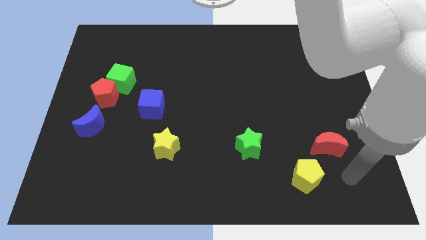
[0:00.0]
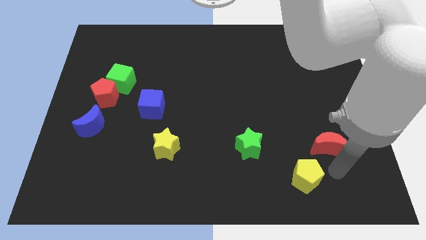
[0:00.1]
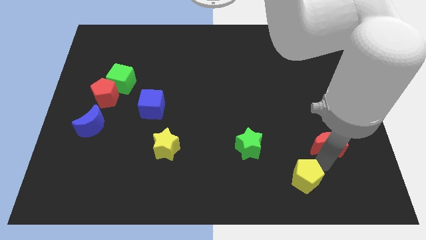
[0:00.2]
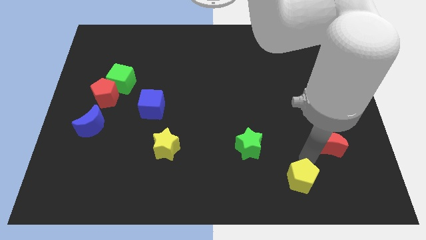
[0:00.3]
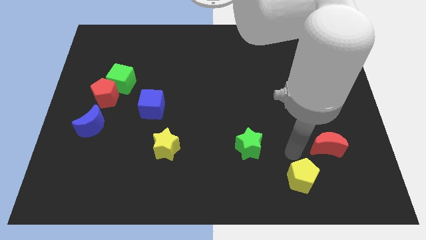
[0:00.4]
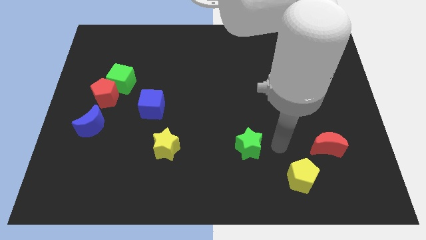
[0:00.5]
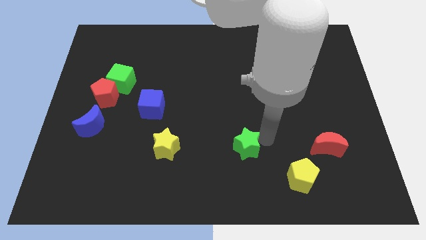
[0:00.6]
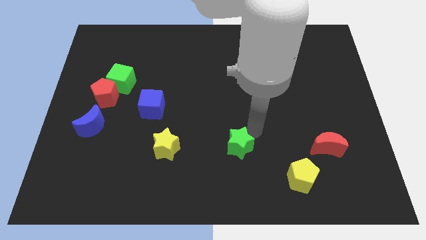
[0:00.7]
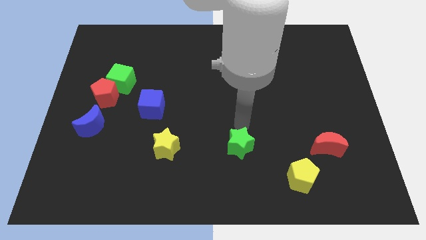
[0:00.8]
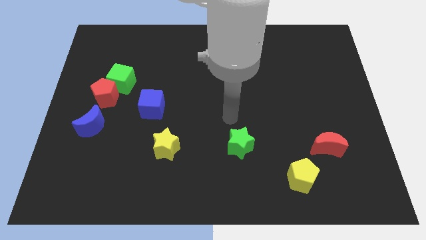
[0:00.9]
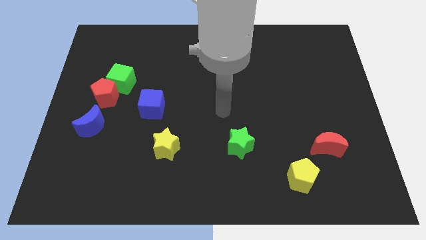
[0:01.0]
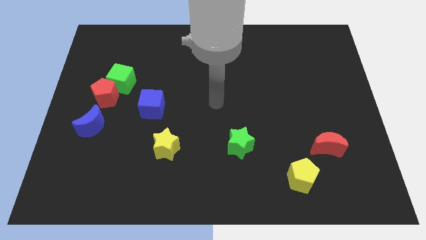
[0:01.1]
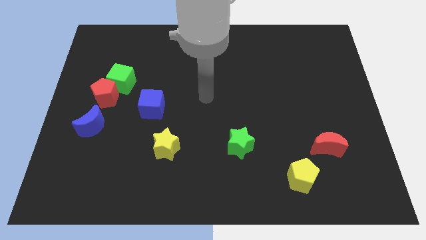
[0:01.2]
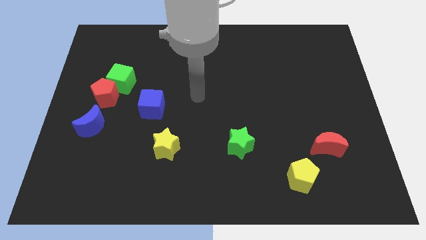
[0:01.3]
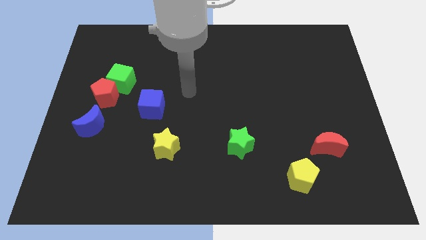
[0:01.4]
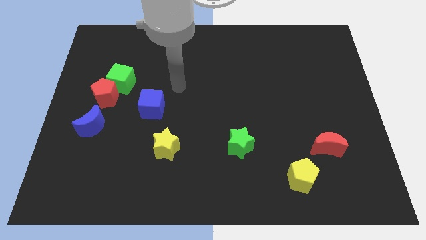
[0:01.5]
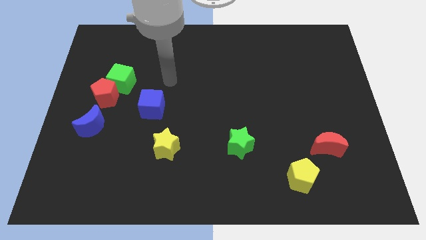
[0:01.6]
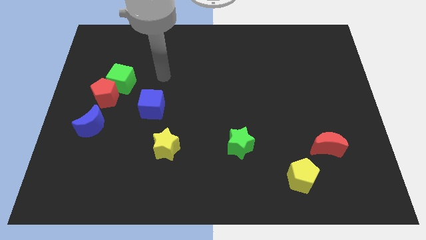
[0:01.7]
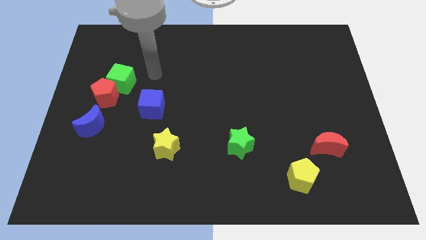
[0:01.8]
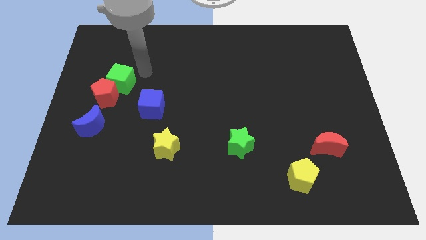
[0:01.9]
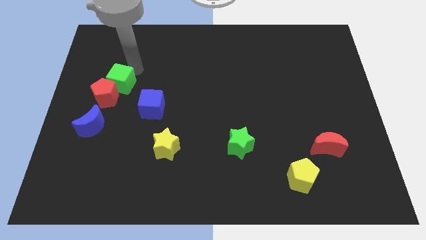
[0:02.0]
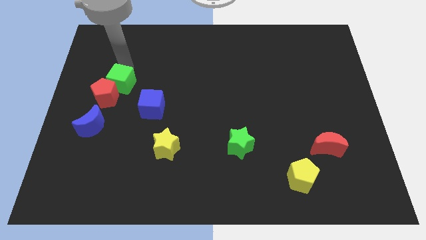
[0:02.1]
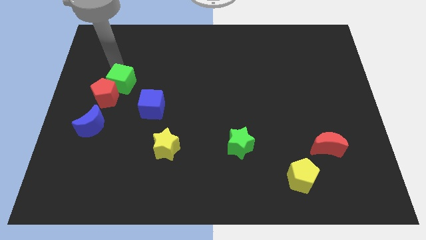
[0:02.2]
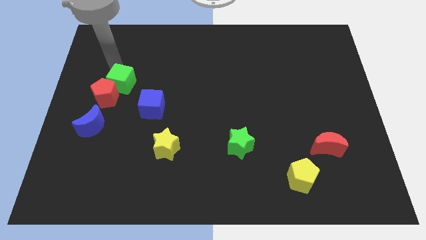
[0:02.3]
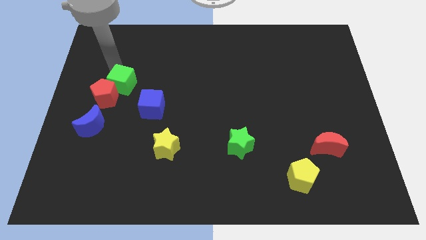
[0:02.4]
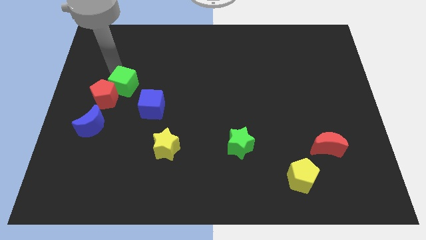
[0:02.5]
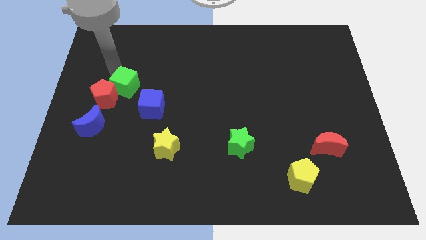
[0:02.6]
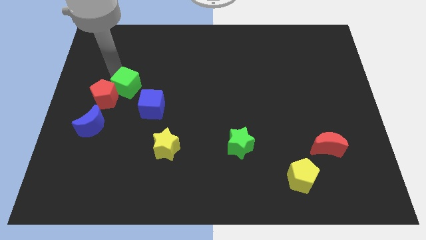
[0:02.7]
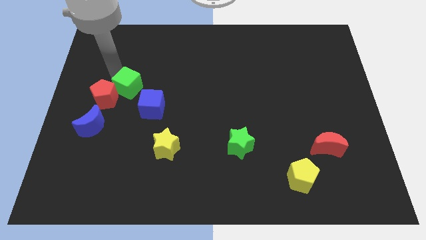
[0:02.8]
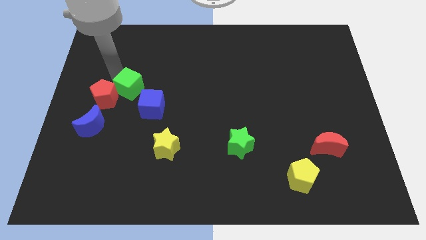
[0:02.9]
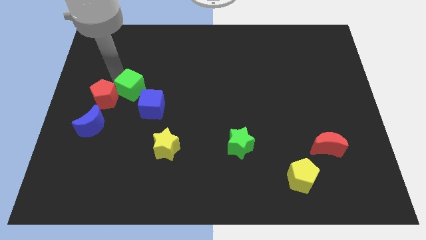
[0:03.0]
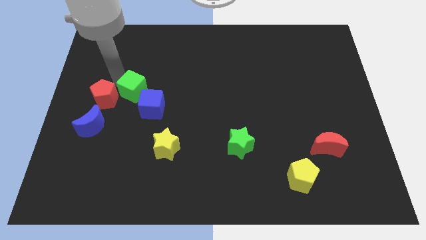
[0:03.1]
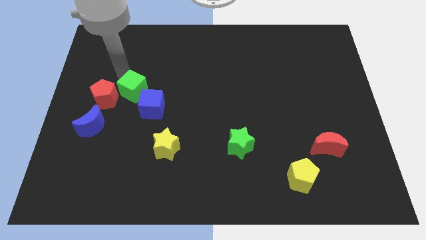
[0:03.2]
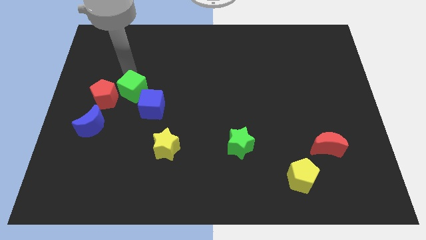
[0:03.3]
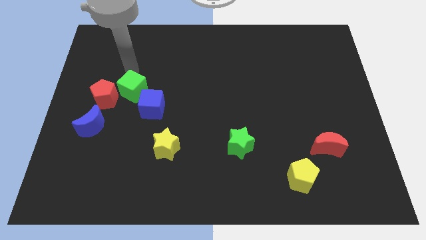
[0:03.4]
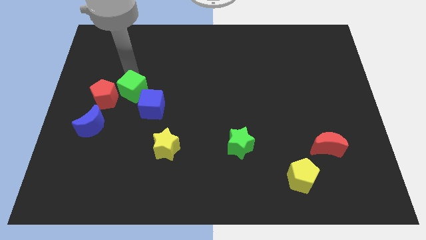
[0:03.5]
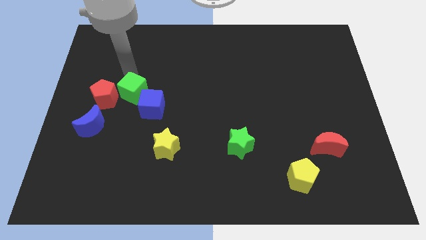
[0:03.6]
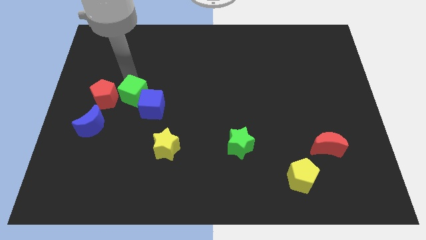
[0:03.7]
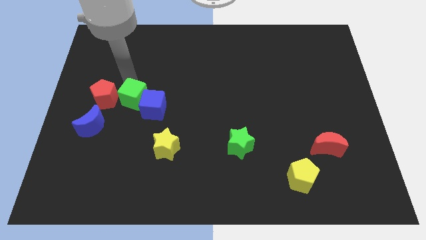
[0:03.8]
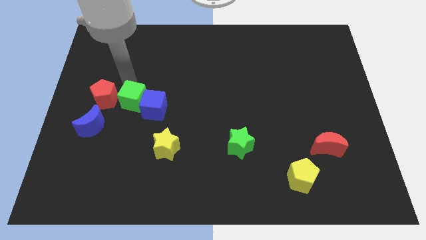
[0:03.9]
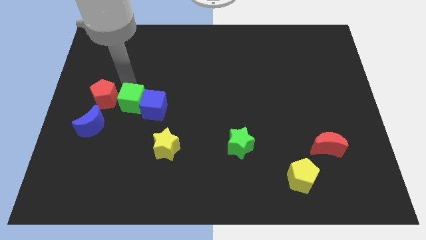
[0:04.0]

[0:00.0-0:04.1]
slightly push the green cube downwards and then right

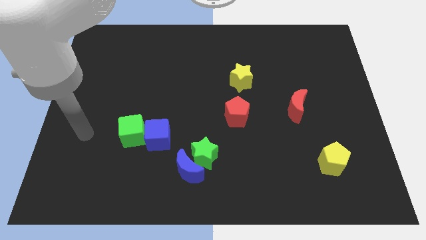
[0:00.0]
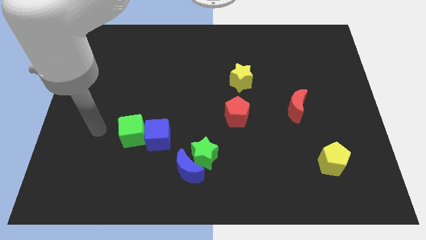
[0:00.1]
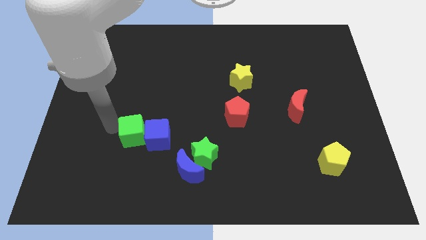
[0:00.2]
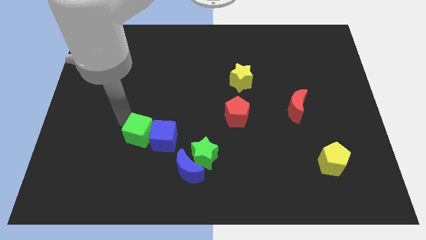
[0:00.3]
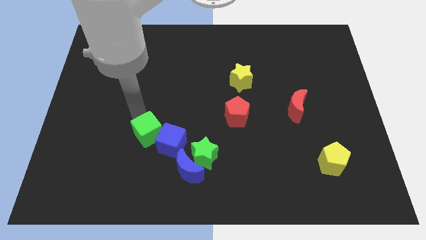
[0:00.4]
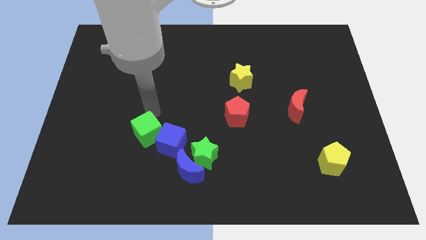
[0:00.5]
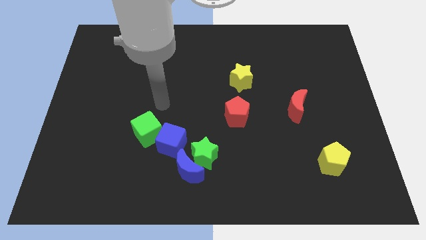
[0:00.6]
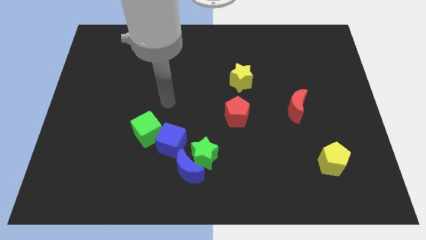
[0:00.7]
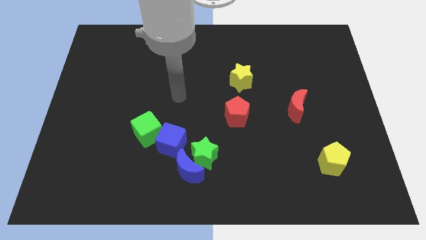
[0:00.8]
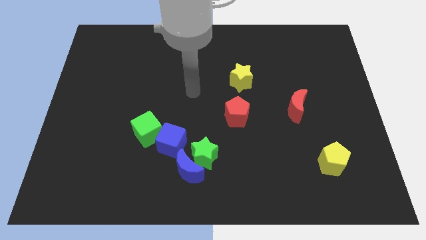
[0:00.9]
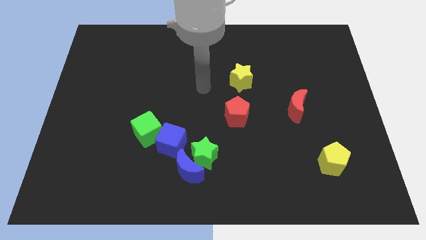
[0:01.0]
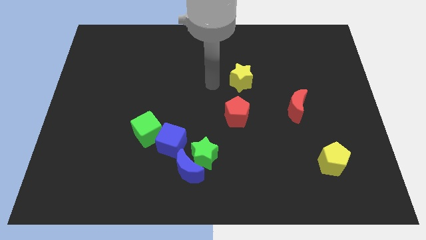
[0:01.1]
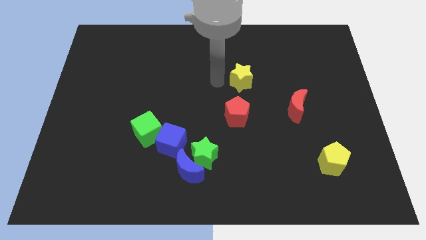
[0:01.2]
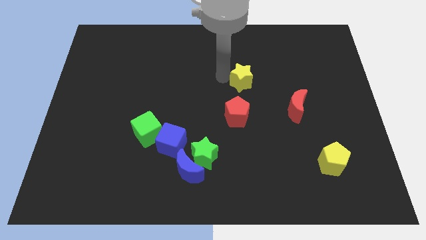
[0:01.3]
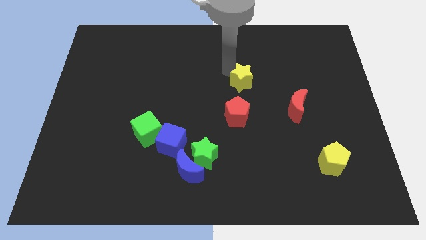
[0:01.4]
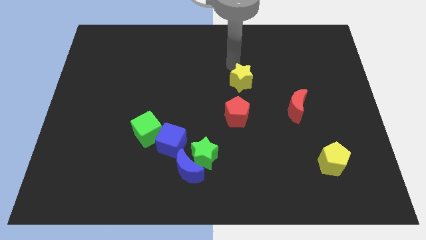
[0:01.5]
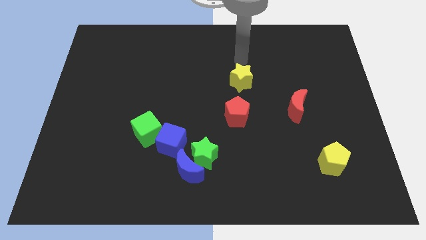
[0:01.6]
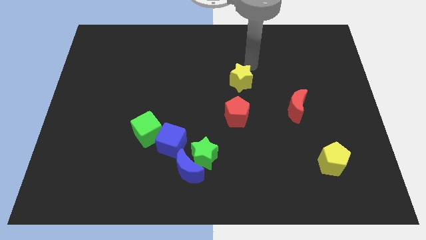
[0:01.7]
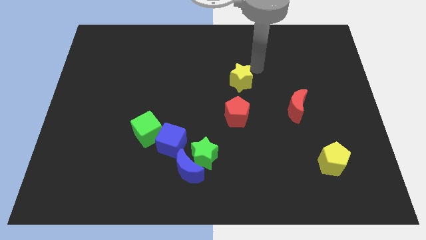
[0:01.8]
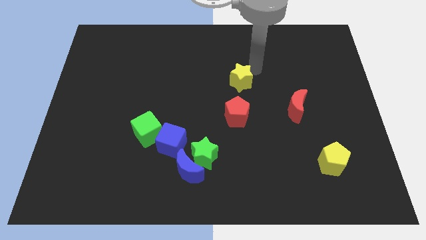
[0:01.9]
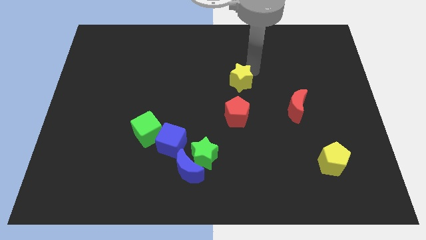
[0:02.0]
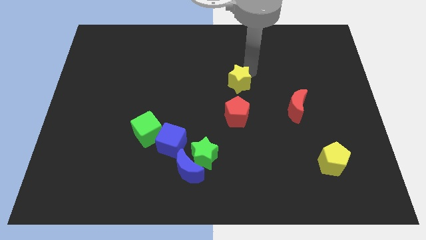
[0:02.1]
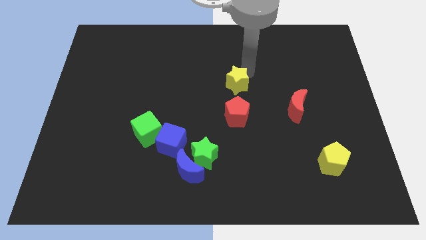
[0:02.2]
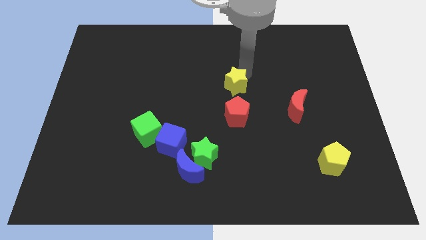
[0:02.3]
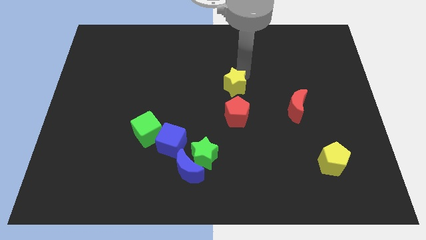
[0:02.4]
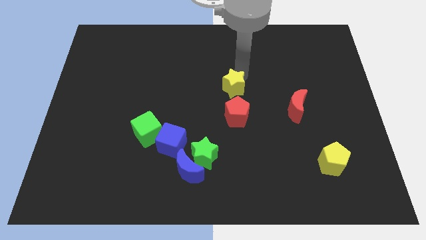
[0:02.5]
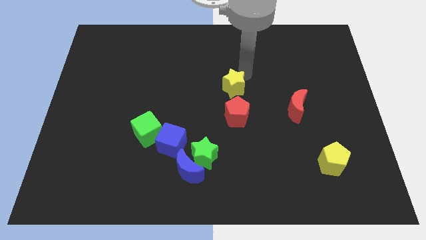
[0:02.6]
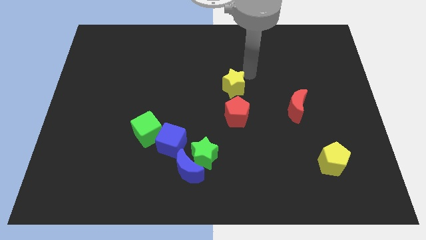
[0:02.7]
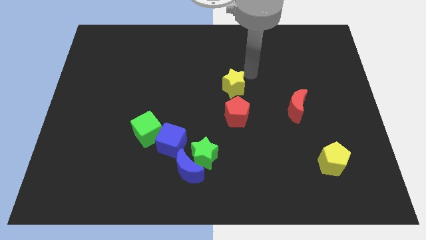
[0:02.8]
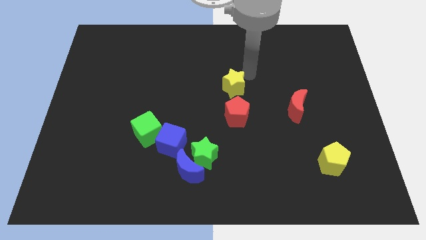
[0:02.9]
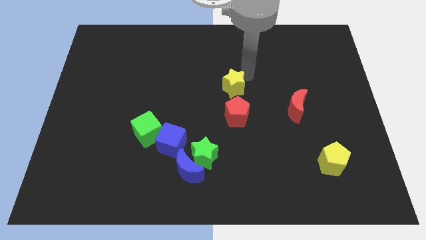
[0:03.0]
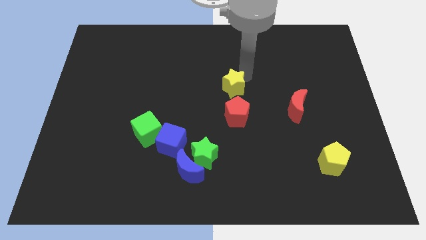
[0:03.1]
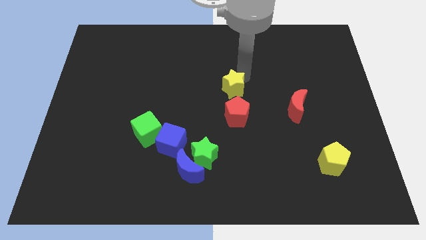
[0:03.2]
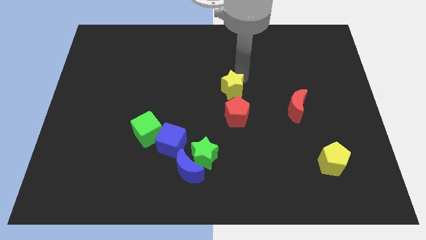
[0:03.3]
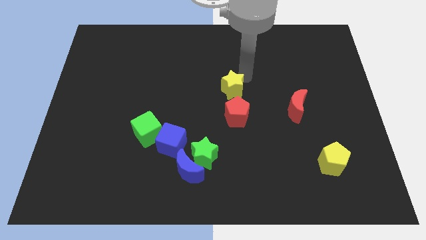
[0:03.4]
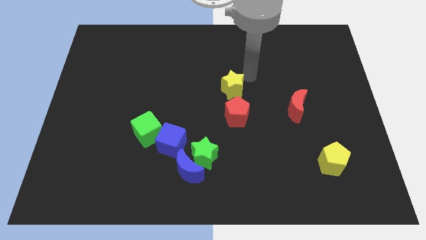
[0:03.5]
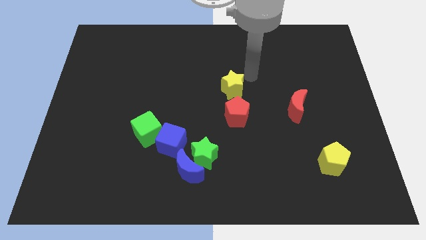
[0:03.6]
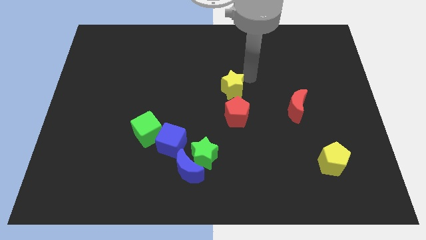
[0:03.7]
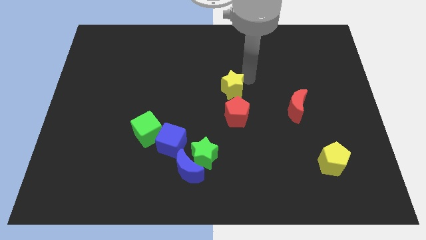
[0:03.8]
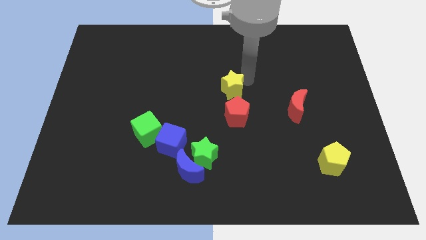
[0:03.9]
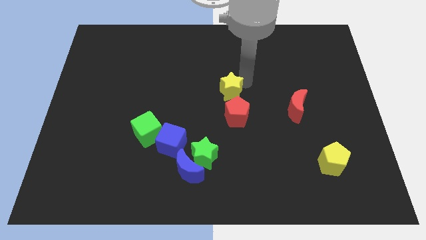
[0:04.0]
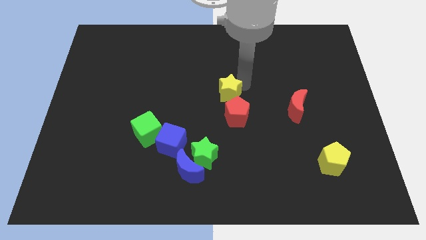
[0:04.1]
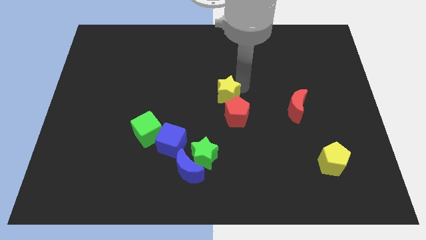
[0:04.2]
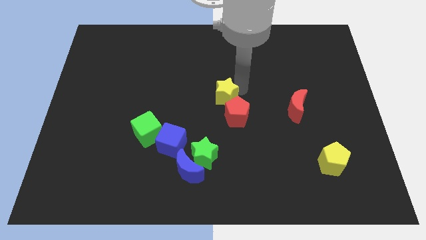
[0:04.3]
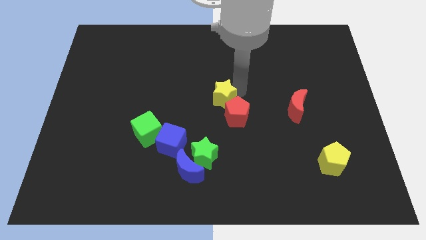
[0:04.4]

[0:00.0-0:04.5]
push the yellow star a little down and then to the left
